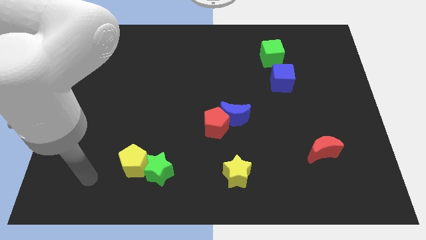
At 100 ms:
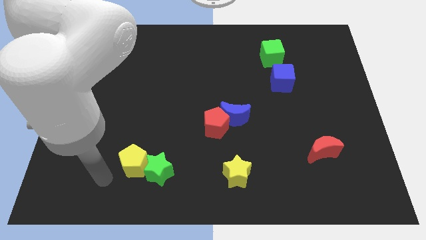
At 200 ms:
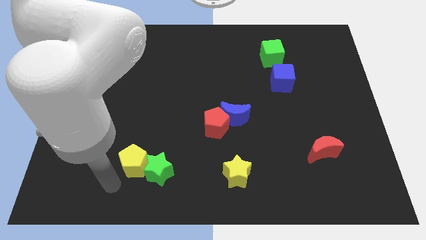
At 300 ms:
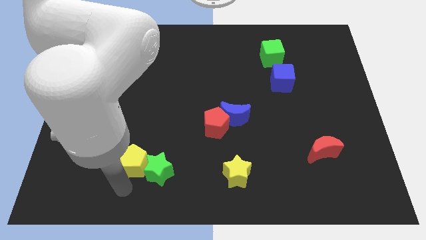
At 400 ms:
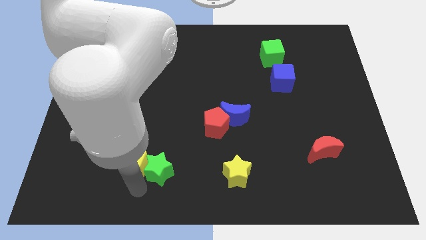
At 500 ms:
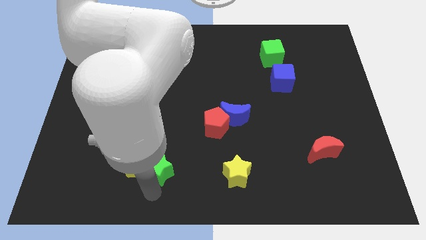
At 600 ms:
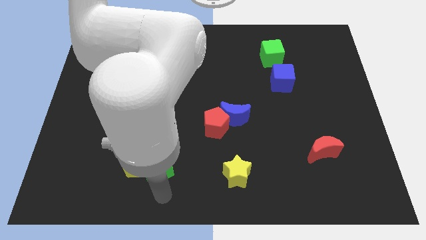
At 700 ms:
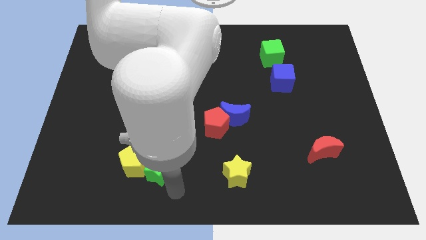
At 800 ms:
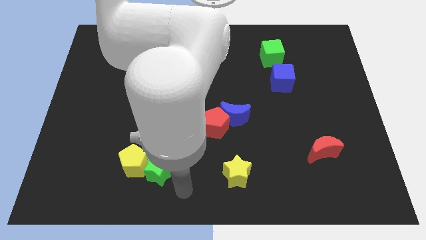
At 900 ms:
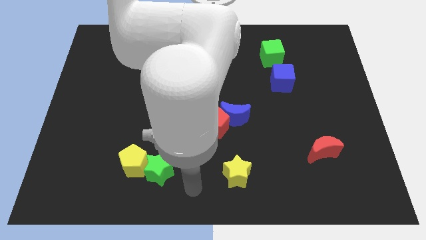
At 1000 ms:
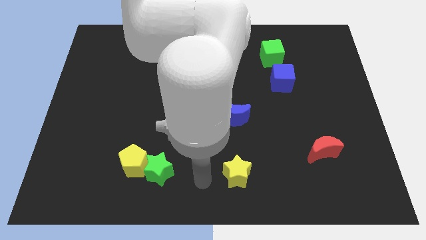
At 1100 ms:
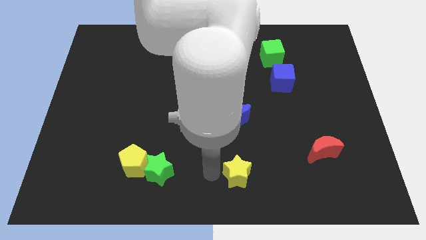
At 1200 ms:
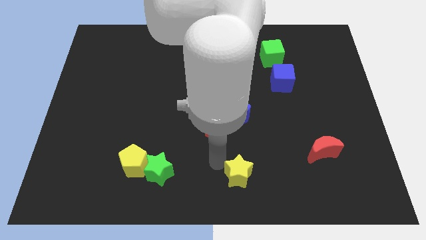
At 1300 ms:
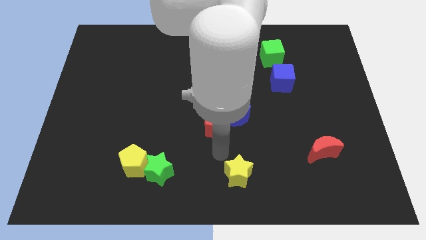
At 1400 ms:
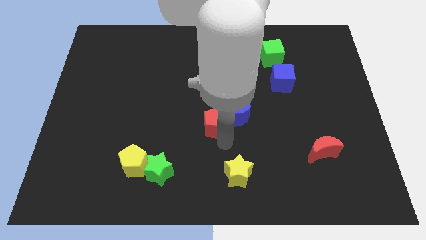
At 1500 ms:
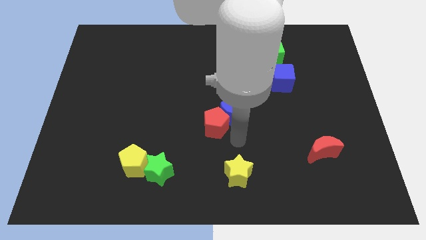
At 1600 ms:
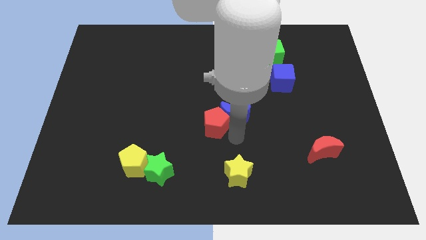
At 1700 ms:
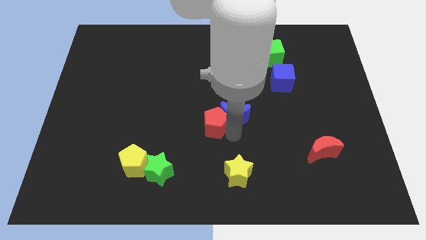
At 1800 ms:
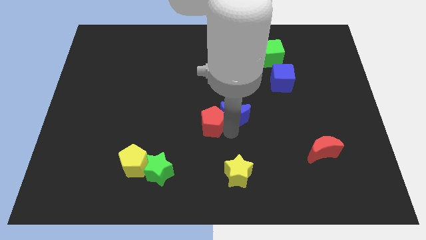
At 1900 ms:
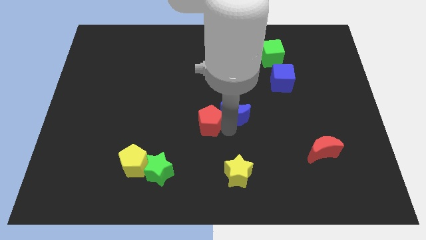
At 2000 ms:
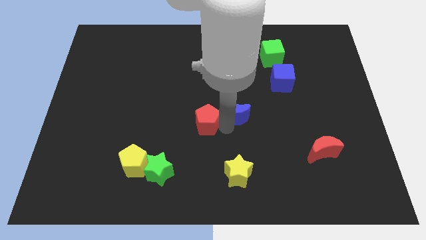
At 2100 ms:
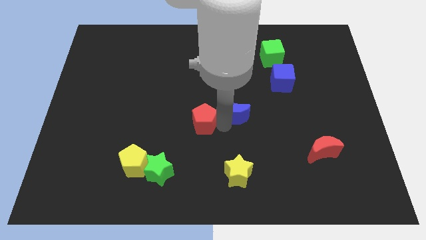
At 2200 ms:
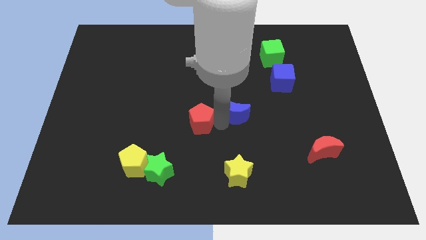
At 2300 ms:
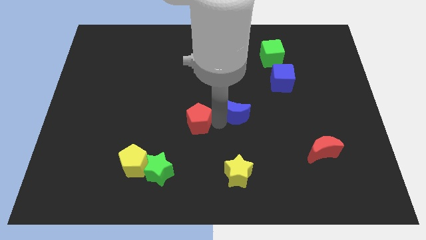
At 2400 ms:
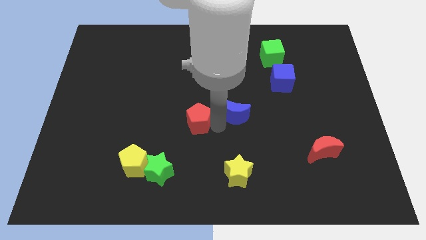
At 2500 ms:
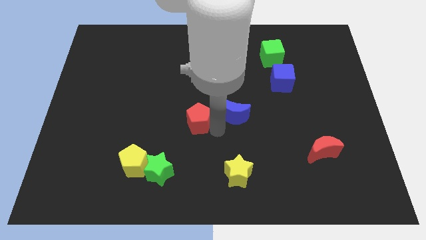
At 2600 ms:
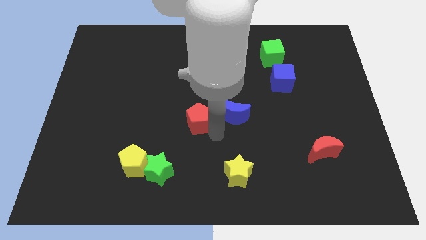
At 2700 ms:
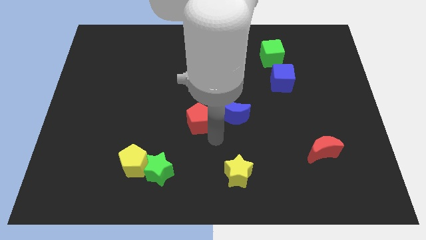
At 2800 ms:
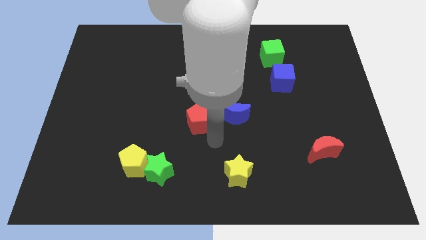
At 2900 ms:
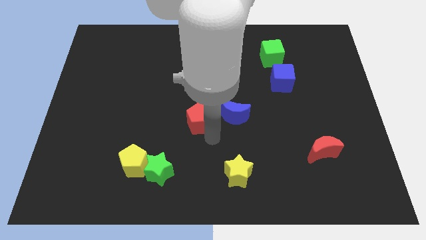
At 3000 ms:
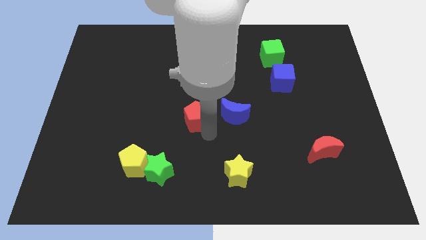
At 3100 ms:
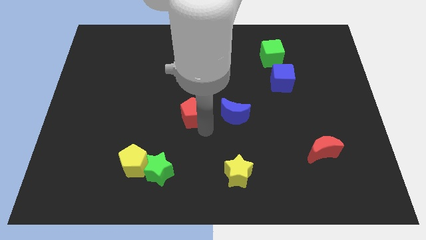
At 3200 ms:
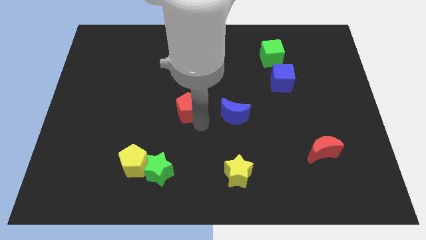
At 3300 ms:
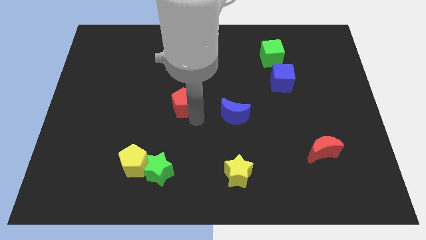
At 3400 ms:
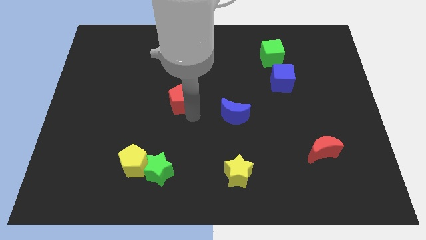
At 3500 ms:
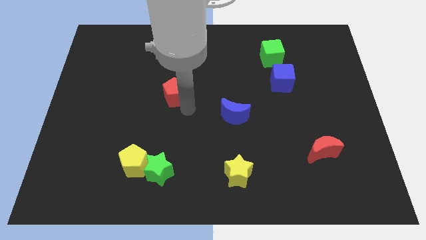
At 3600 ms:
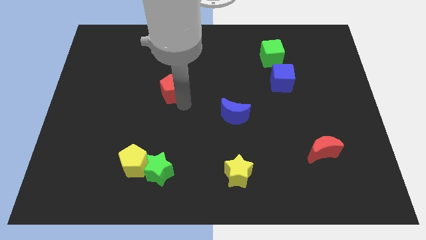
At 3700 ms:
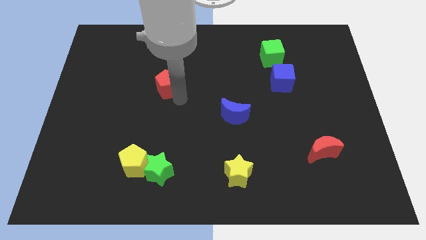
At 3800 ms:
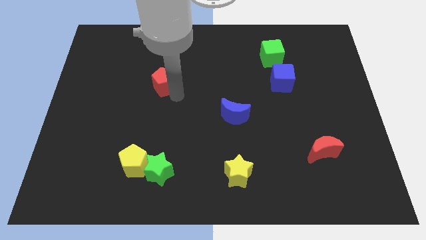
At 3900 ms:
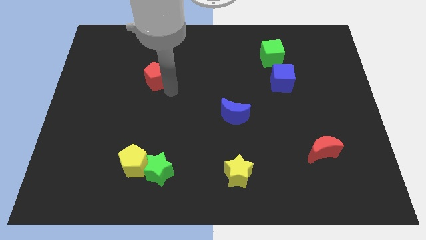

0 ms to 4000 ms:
slide the red pentagon diagonally up and left

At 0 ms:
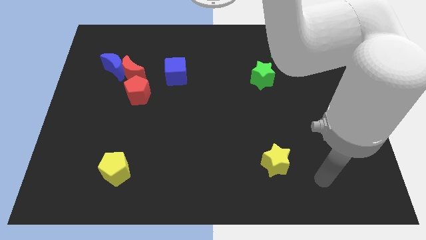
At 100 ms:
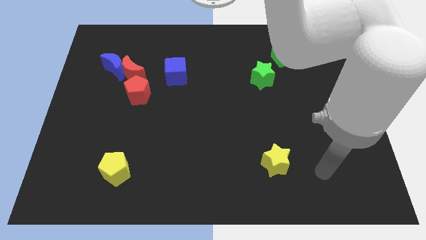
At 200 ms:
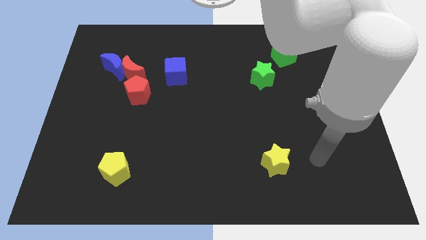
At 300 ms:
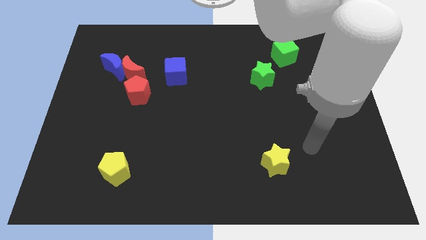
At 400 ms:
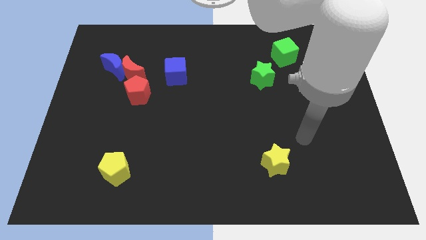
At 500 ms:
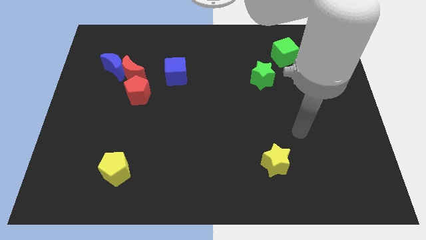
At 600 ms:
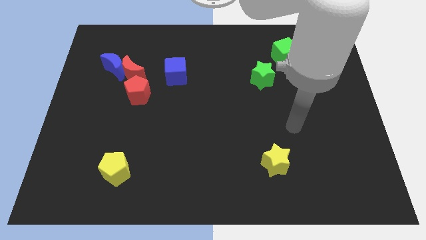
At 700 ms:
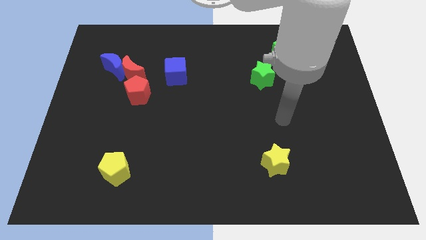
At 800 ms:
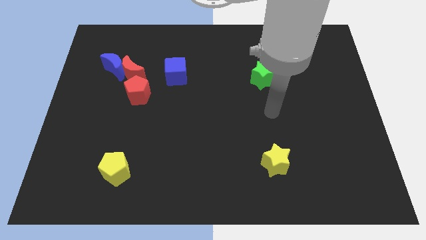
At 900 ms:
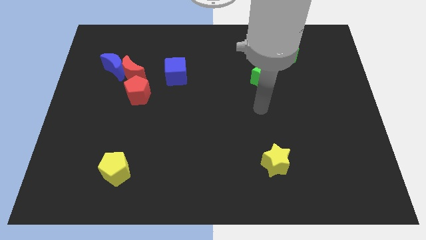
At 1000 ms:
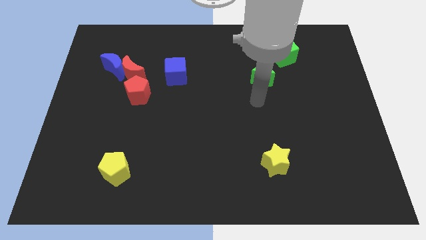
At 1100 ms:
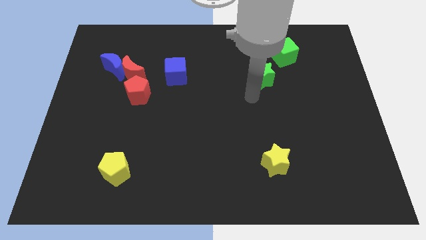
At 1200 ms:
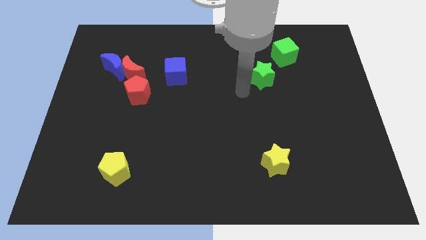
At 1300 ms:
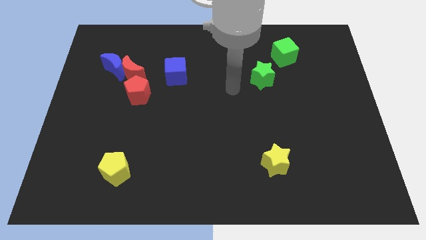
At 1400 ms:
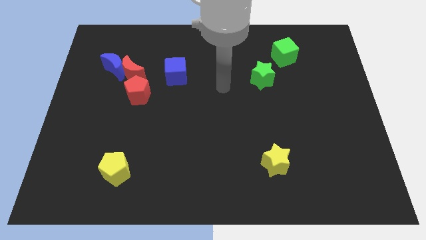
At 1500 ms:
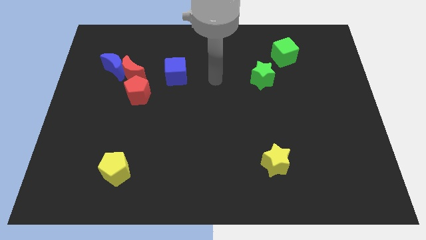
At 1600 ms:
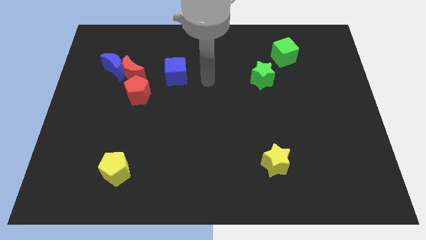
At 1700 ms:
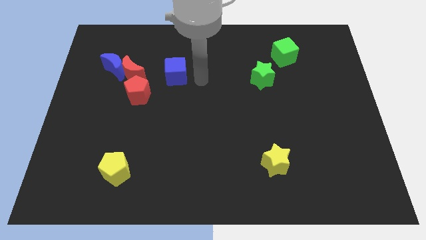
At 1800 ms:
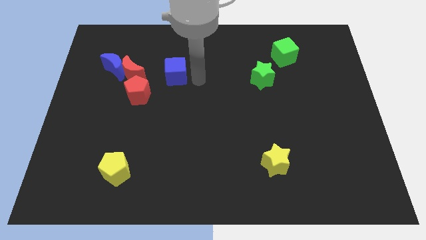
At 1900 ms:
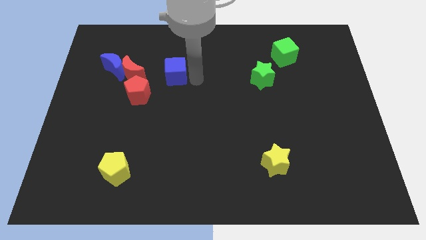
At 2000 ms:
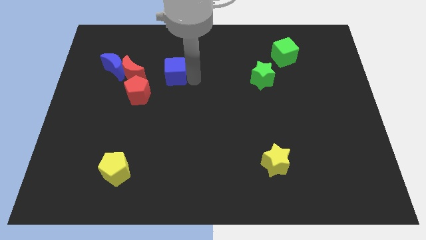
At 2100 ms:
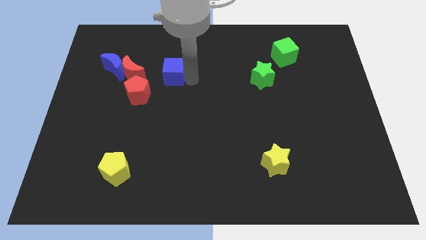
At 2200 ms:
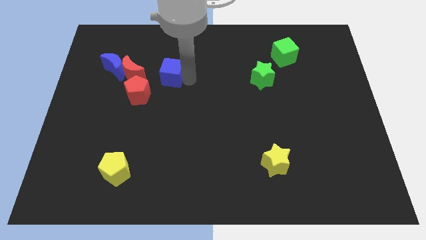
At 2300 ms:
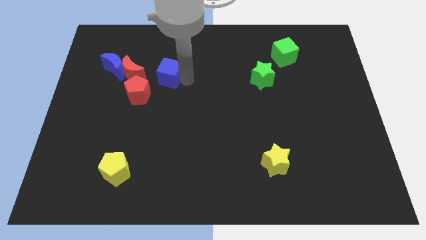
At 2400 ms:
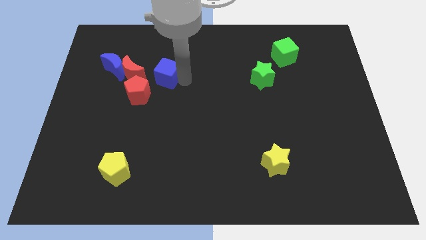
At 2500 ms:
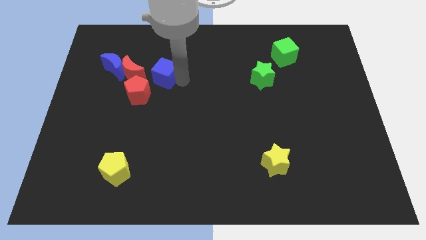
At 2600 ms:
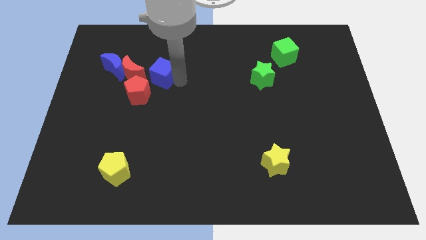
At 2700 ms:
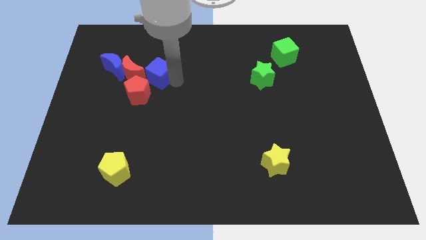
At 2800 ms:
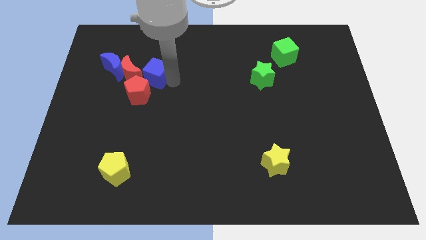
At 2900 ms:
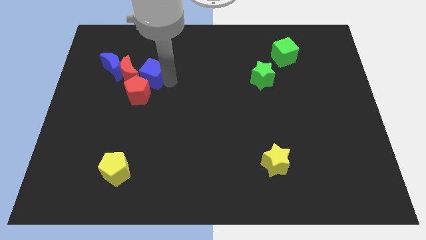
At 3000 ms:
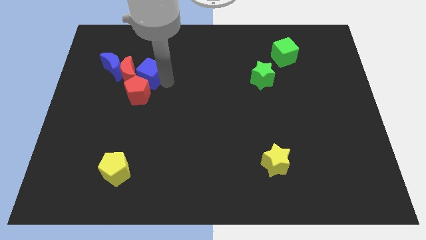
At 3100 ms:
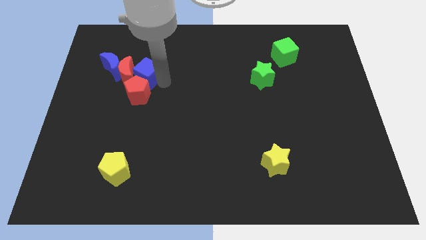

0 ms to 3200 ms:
slightly slide the blue cube left

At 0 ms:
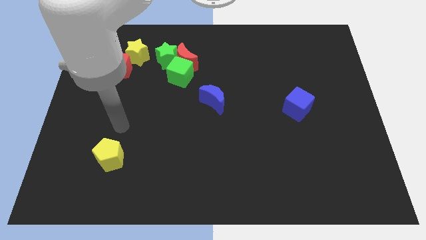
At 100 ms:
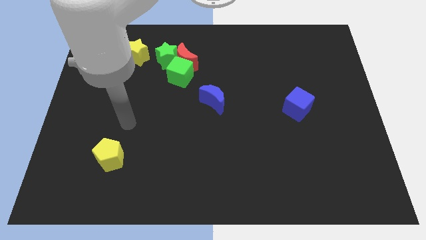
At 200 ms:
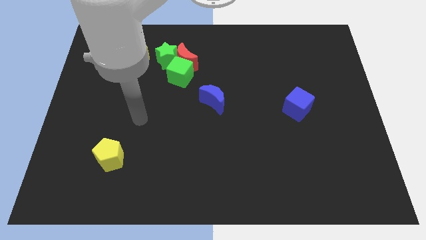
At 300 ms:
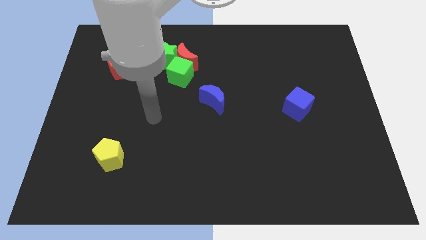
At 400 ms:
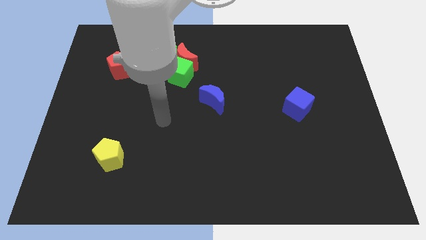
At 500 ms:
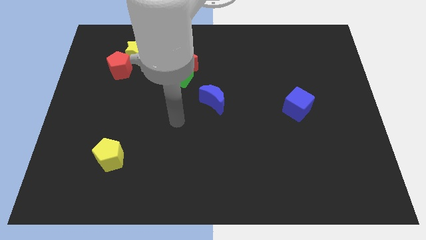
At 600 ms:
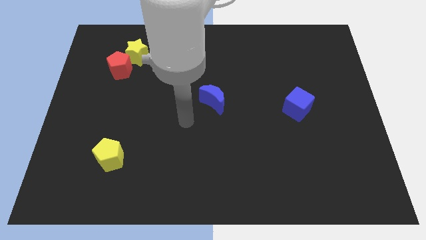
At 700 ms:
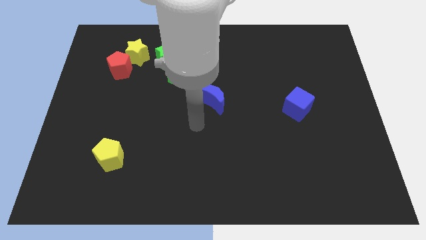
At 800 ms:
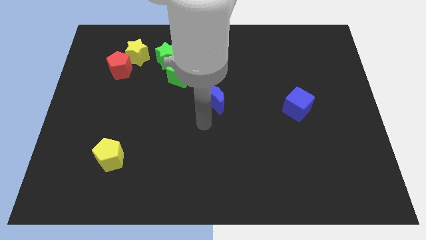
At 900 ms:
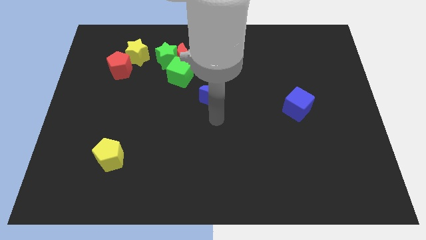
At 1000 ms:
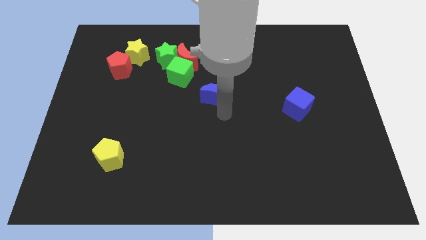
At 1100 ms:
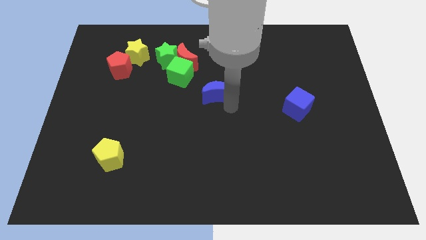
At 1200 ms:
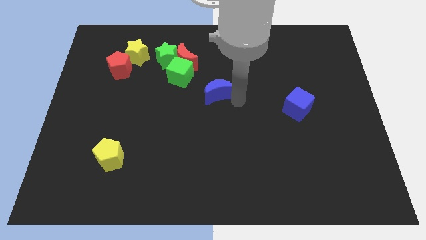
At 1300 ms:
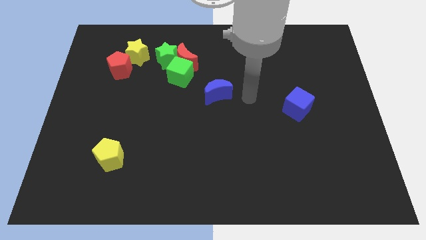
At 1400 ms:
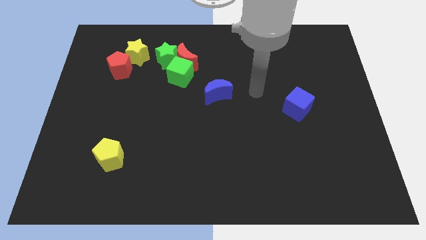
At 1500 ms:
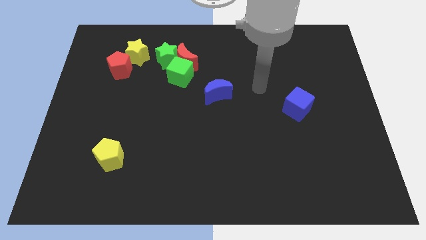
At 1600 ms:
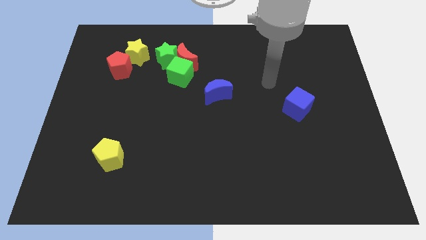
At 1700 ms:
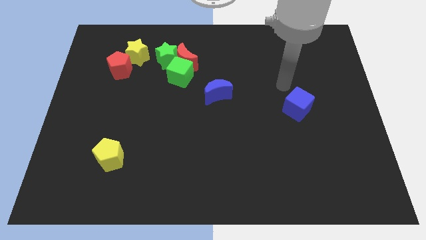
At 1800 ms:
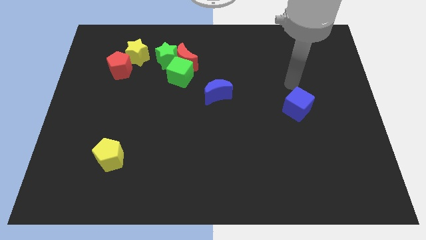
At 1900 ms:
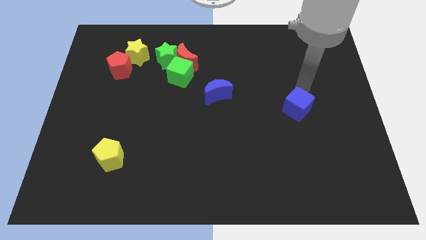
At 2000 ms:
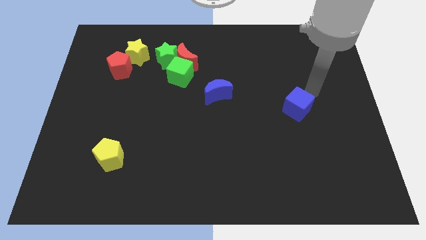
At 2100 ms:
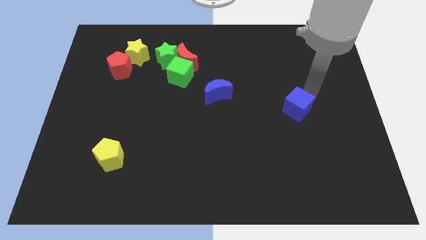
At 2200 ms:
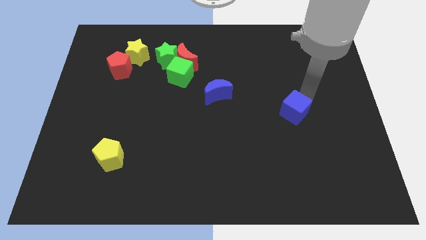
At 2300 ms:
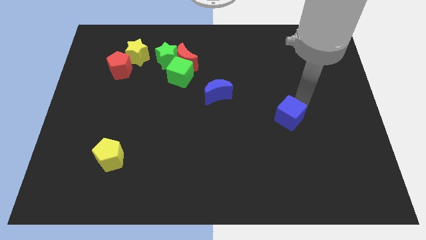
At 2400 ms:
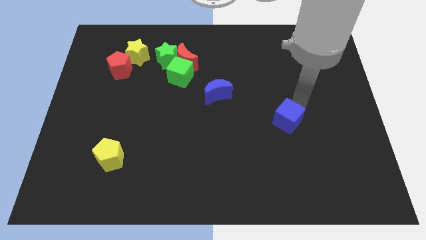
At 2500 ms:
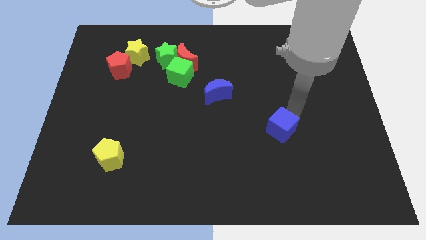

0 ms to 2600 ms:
slide the blue cube downwards and left a little
